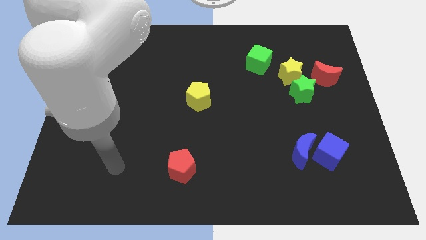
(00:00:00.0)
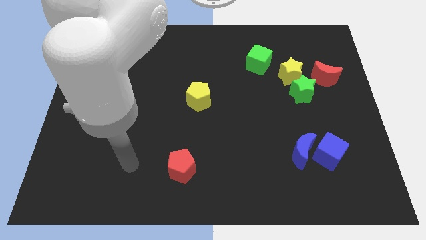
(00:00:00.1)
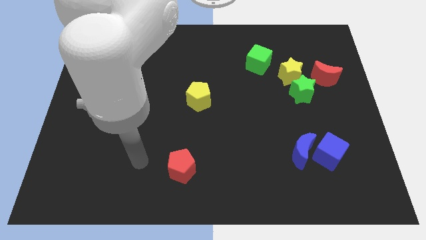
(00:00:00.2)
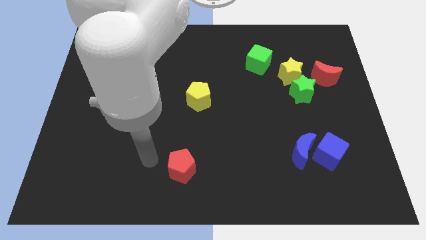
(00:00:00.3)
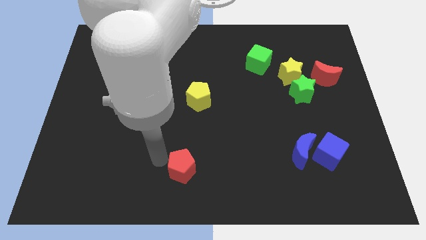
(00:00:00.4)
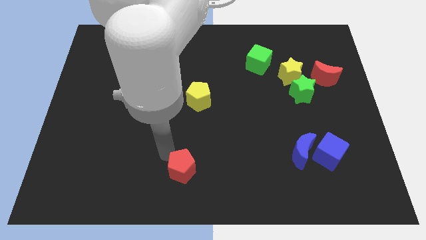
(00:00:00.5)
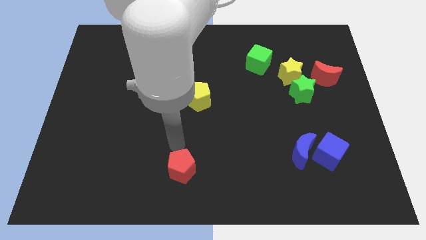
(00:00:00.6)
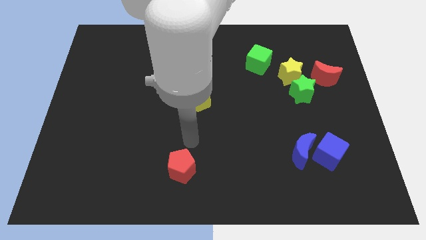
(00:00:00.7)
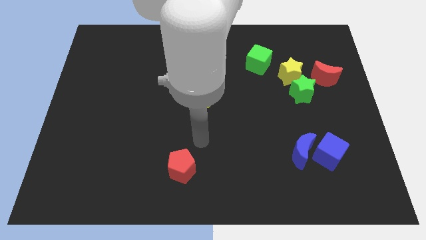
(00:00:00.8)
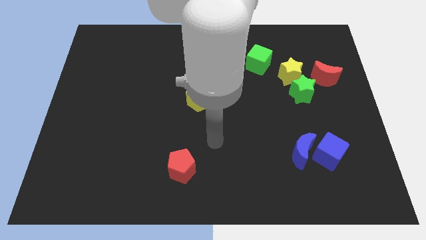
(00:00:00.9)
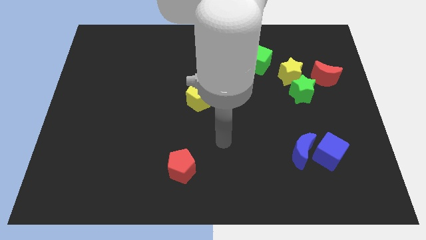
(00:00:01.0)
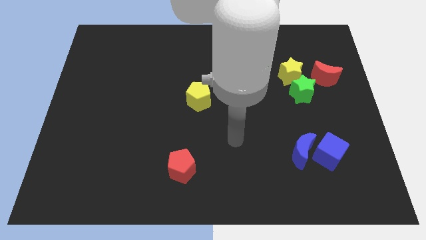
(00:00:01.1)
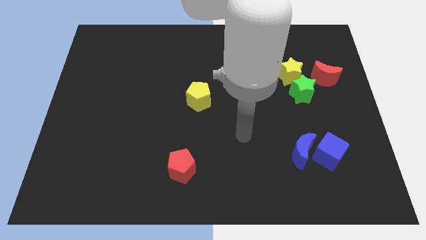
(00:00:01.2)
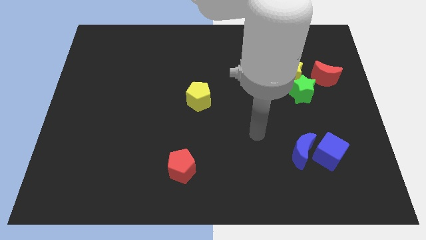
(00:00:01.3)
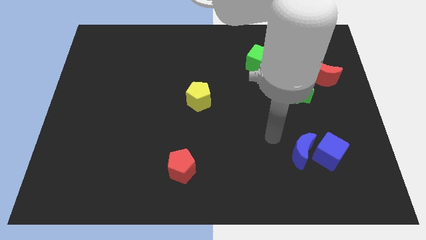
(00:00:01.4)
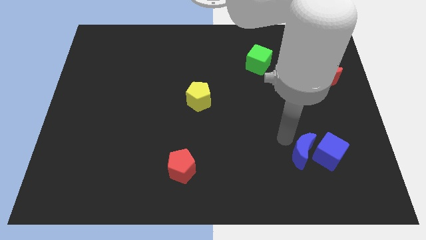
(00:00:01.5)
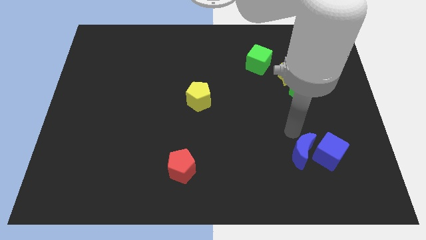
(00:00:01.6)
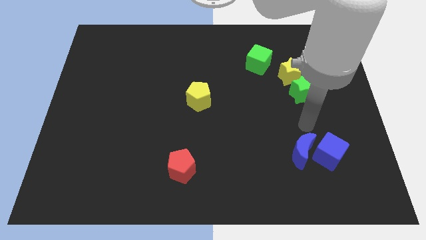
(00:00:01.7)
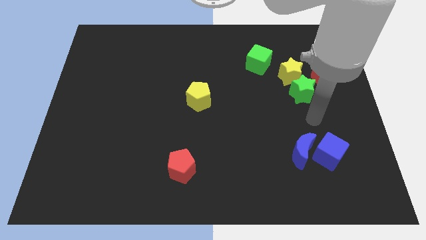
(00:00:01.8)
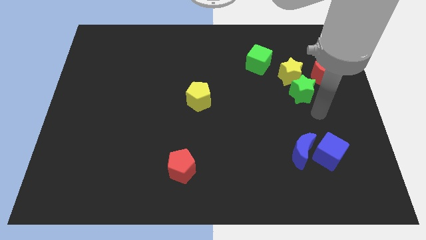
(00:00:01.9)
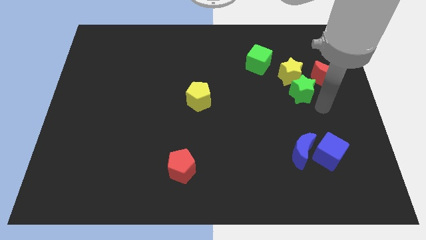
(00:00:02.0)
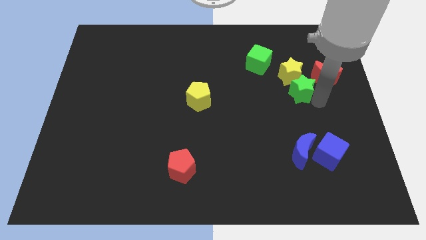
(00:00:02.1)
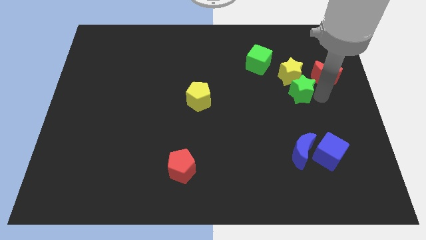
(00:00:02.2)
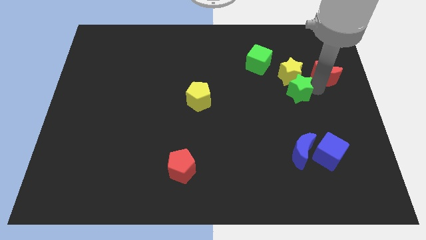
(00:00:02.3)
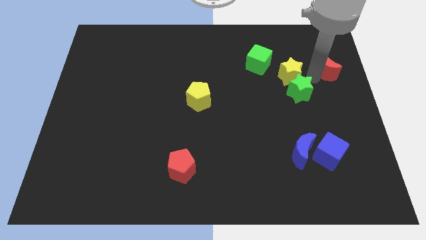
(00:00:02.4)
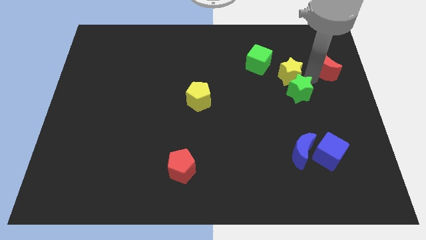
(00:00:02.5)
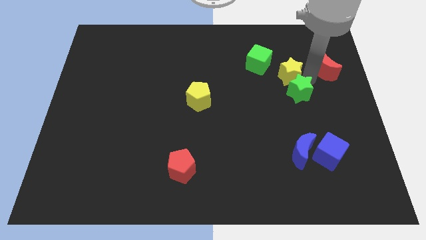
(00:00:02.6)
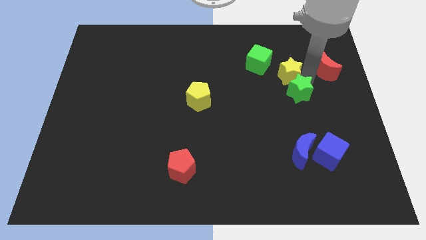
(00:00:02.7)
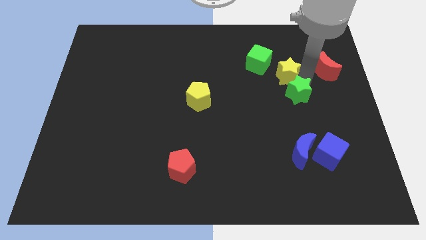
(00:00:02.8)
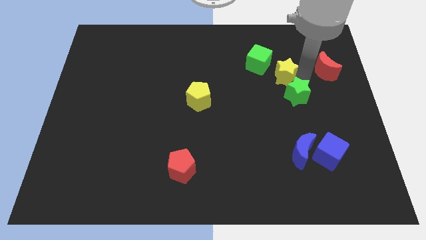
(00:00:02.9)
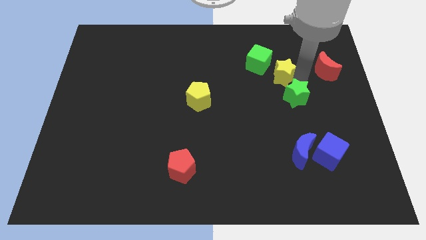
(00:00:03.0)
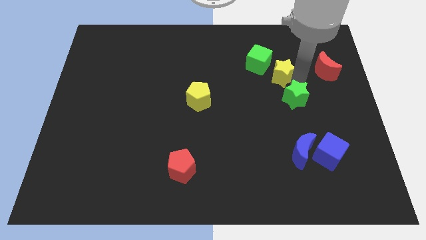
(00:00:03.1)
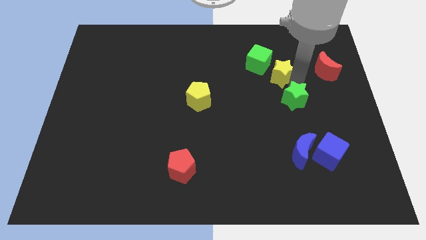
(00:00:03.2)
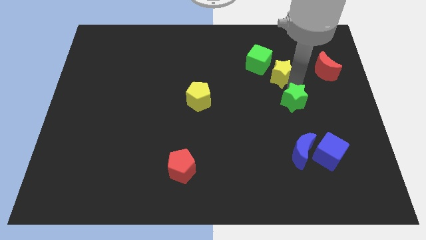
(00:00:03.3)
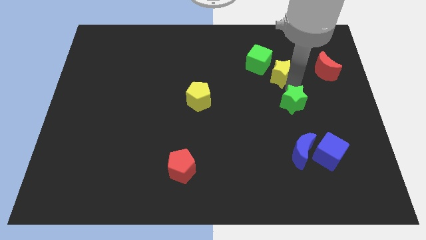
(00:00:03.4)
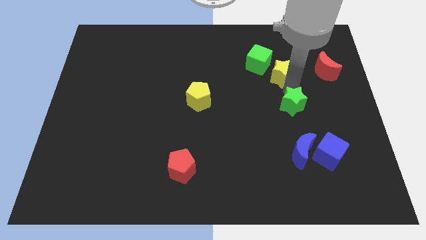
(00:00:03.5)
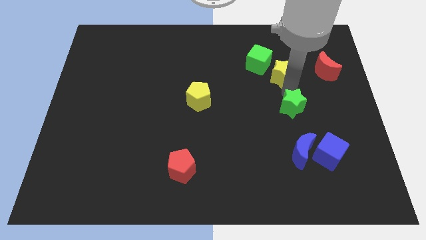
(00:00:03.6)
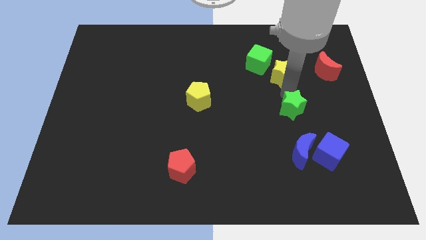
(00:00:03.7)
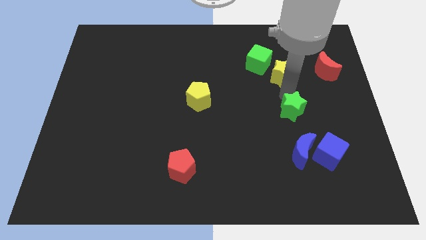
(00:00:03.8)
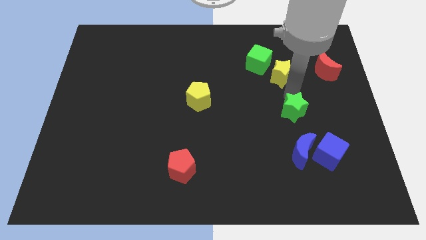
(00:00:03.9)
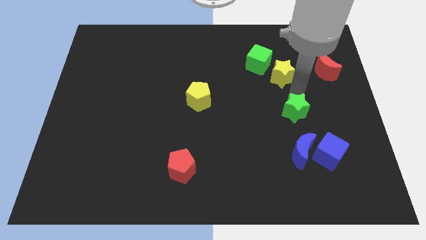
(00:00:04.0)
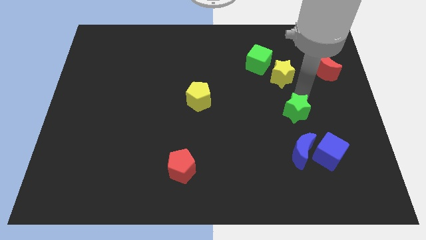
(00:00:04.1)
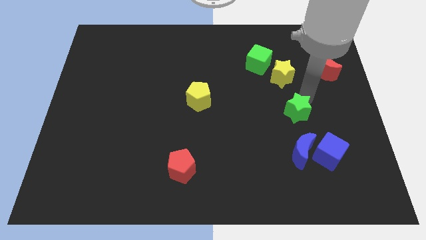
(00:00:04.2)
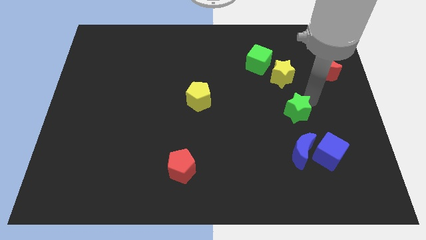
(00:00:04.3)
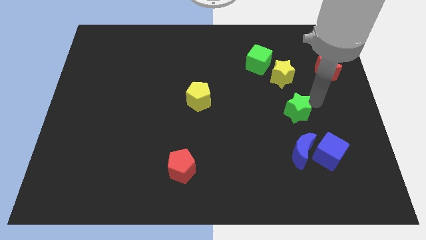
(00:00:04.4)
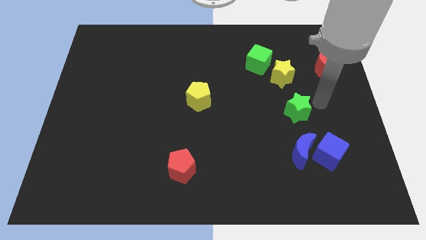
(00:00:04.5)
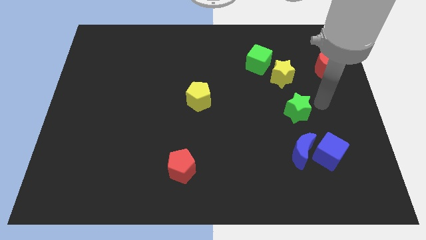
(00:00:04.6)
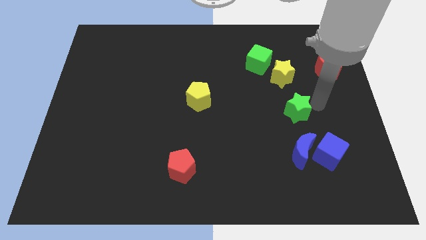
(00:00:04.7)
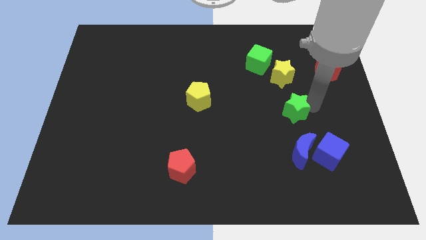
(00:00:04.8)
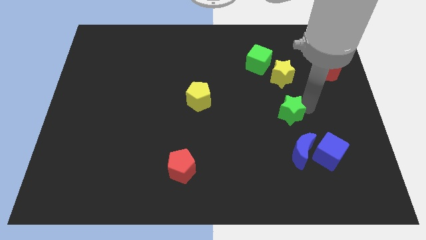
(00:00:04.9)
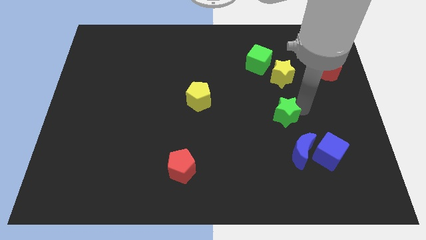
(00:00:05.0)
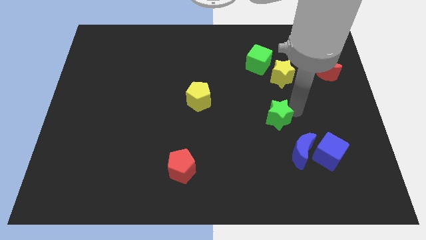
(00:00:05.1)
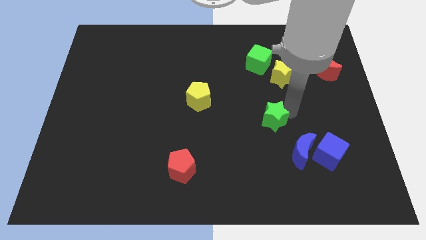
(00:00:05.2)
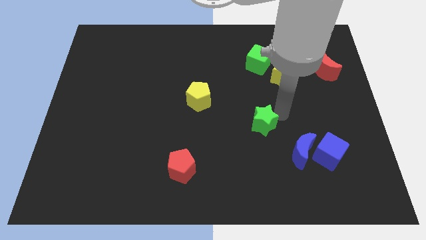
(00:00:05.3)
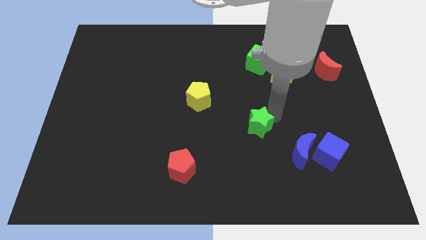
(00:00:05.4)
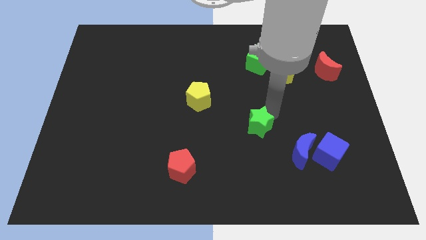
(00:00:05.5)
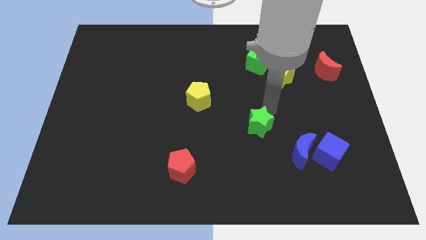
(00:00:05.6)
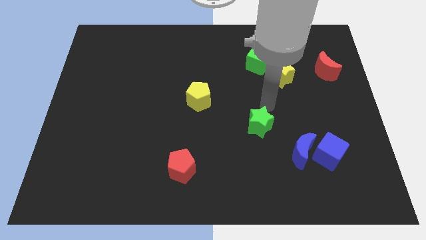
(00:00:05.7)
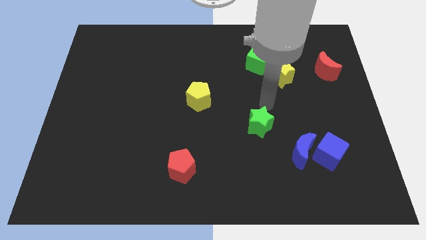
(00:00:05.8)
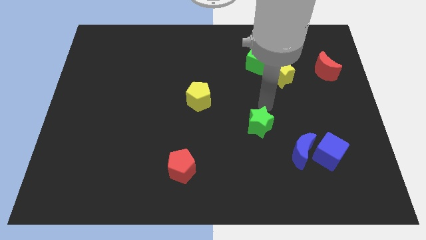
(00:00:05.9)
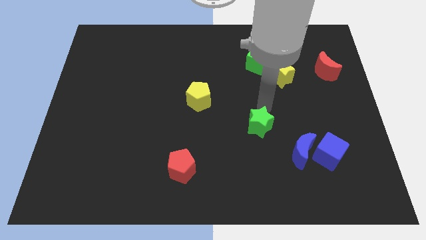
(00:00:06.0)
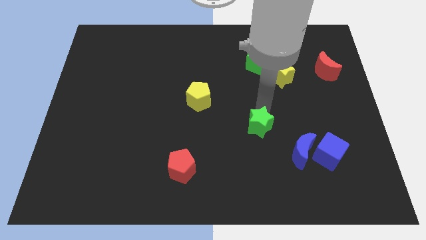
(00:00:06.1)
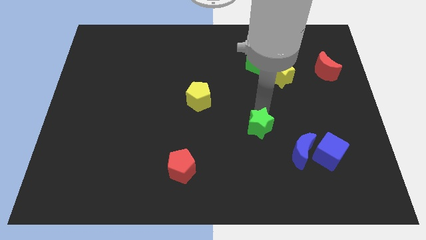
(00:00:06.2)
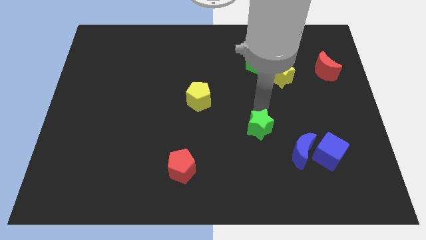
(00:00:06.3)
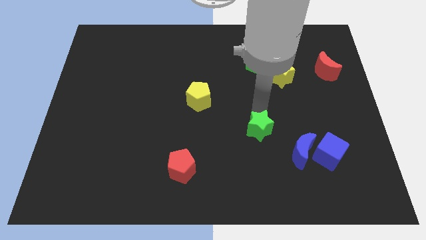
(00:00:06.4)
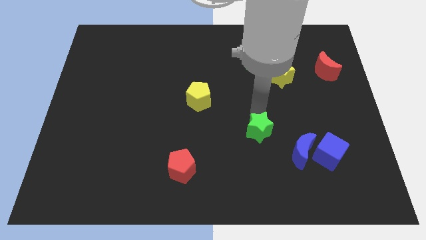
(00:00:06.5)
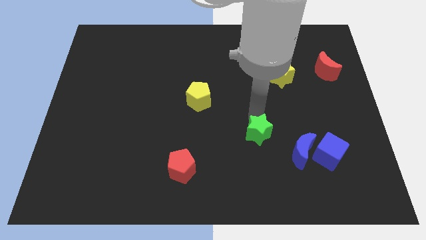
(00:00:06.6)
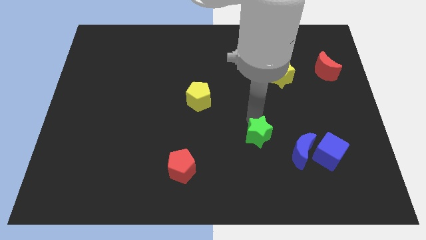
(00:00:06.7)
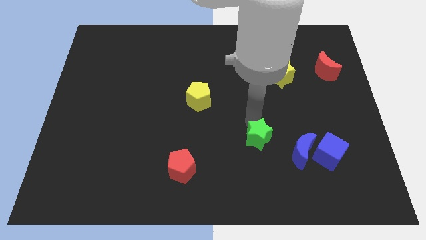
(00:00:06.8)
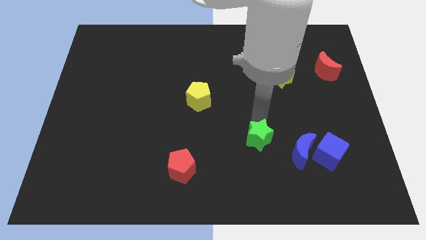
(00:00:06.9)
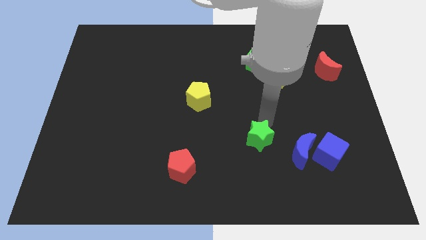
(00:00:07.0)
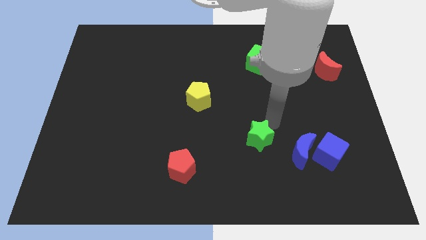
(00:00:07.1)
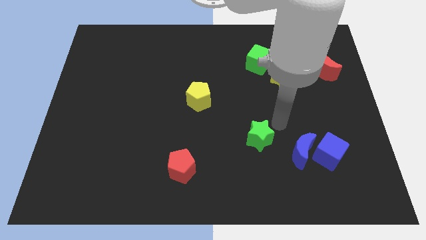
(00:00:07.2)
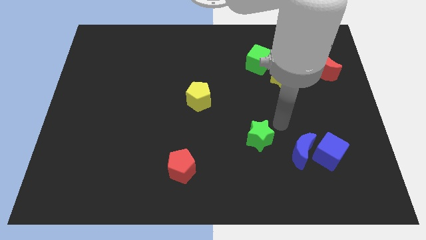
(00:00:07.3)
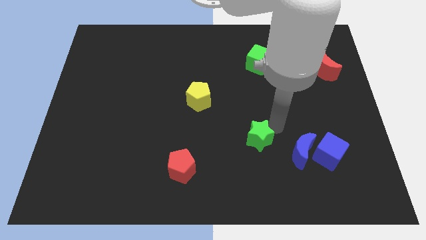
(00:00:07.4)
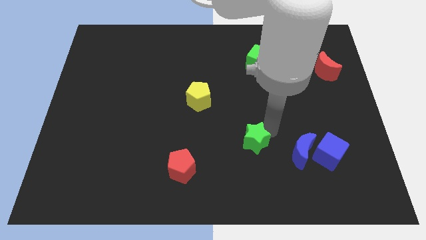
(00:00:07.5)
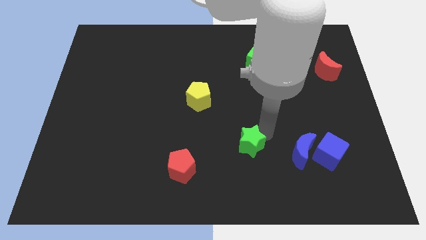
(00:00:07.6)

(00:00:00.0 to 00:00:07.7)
push the green star downwards and to the left diagonally

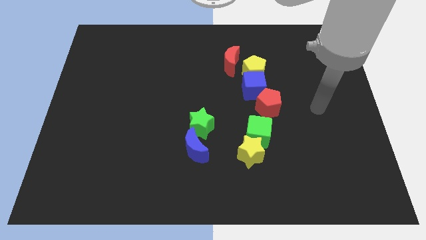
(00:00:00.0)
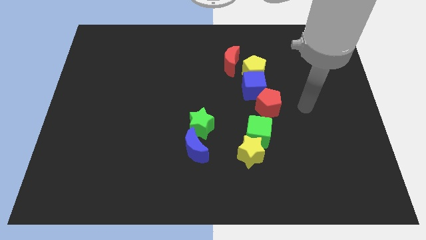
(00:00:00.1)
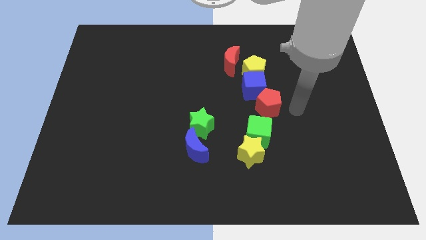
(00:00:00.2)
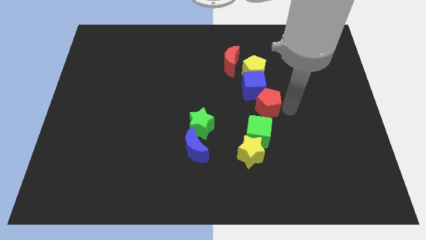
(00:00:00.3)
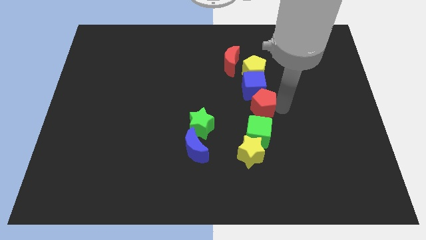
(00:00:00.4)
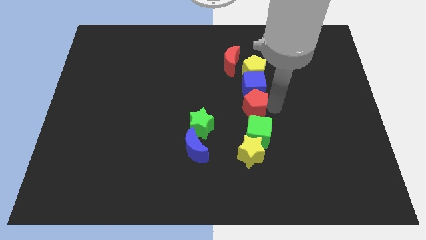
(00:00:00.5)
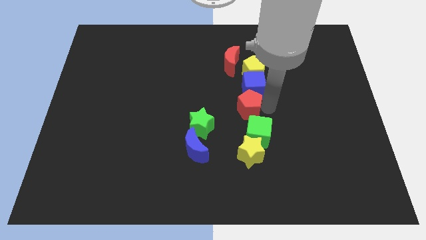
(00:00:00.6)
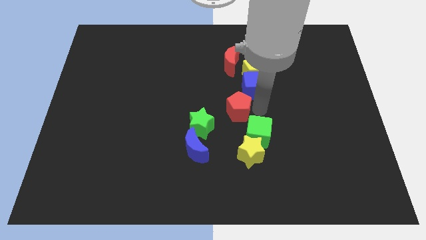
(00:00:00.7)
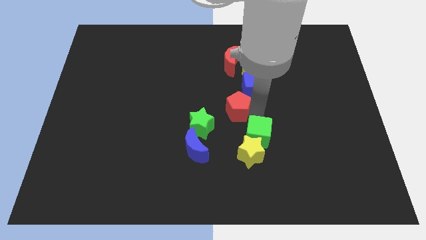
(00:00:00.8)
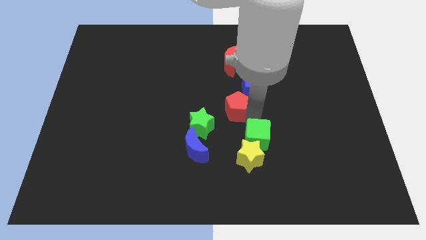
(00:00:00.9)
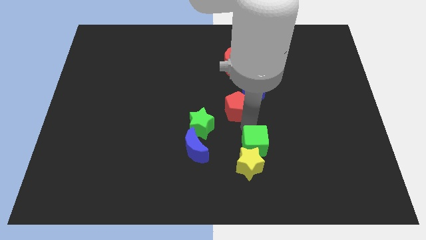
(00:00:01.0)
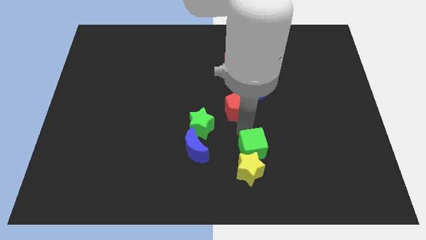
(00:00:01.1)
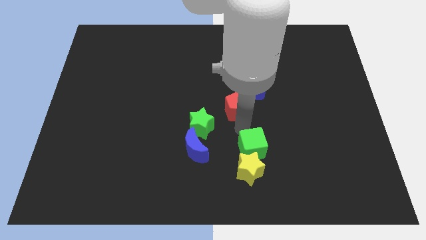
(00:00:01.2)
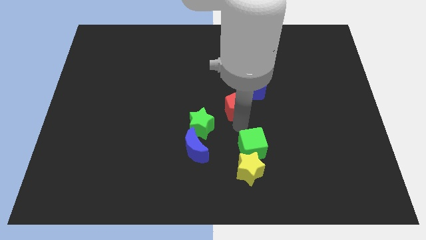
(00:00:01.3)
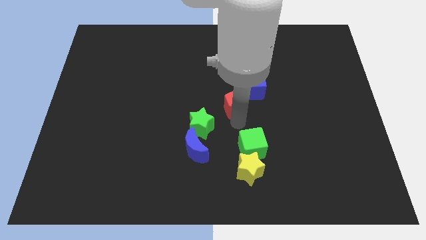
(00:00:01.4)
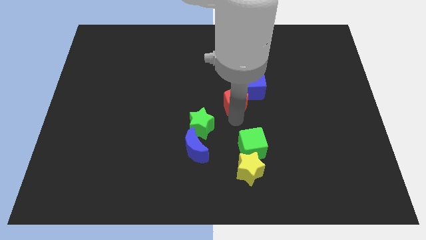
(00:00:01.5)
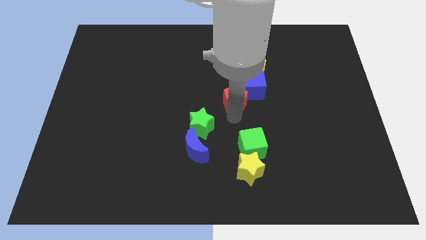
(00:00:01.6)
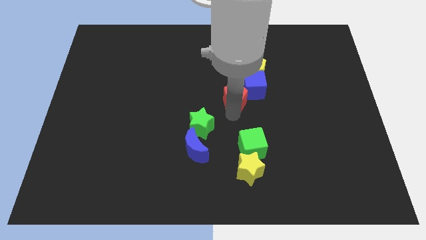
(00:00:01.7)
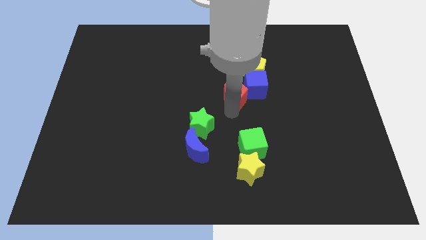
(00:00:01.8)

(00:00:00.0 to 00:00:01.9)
slide the red pentagon a bit upwards and to the left diagonally
